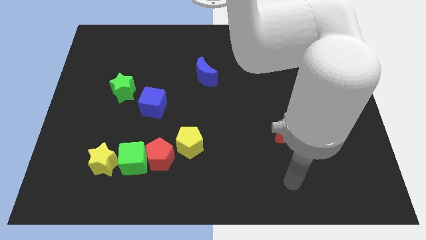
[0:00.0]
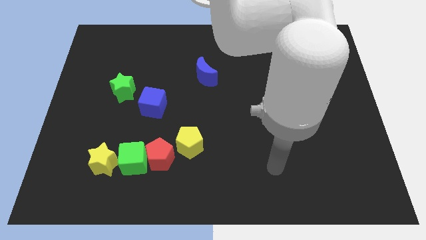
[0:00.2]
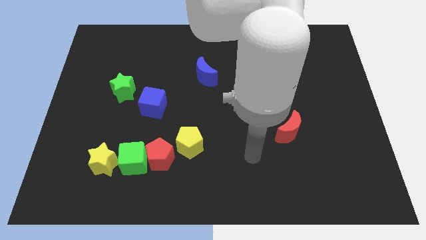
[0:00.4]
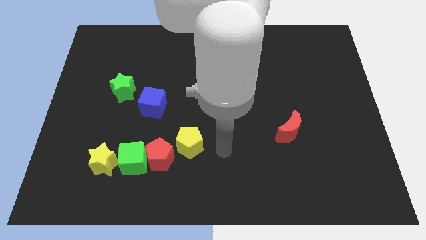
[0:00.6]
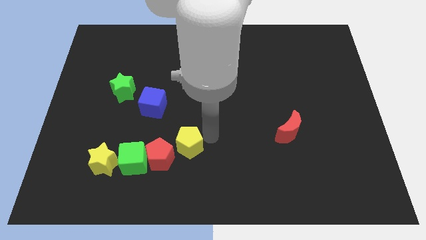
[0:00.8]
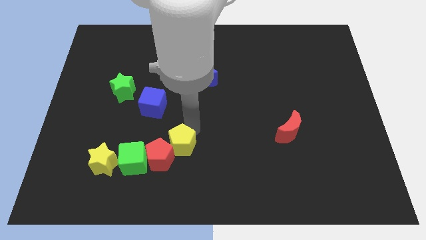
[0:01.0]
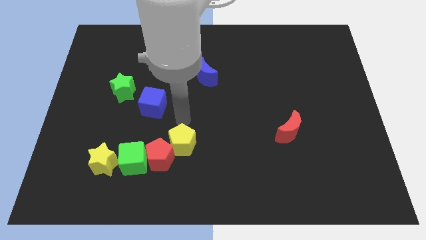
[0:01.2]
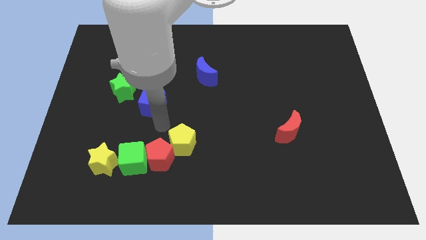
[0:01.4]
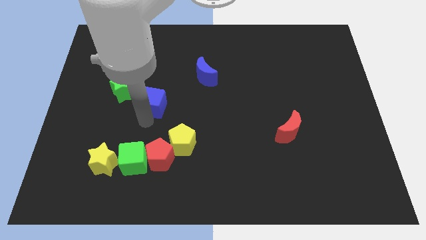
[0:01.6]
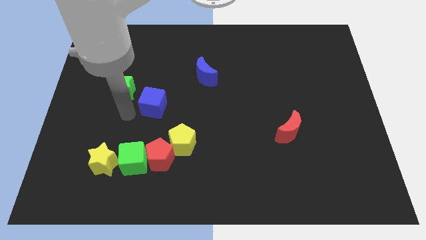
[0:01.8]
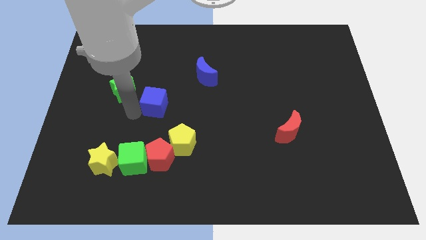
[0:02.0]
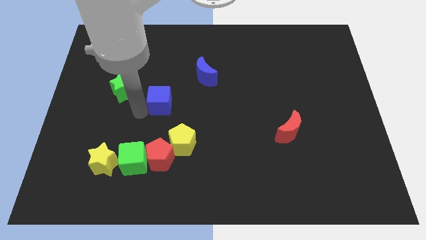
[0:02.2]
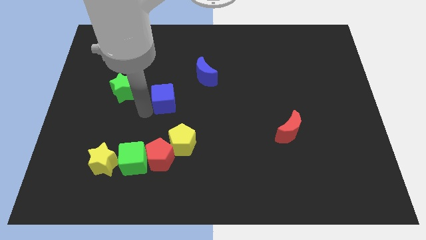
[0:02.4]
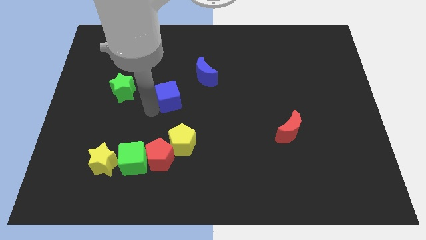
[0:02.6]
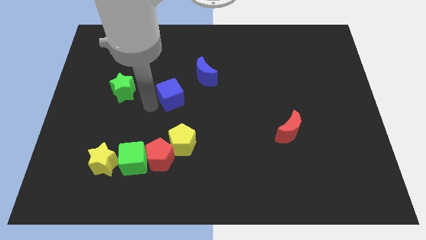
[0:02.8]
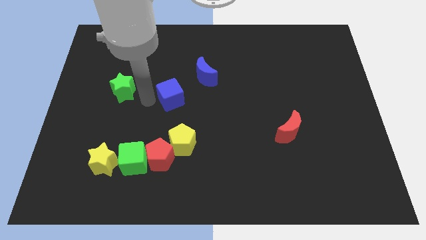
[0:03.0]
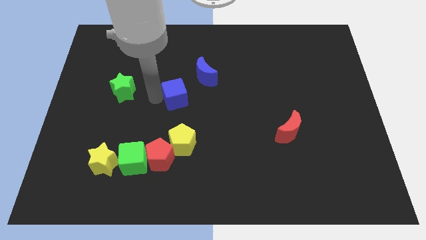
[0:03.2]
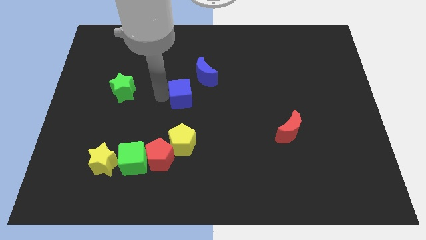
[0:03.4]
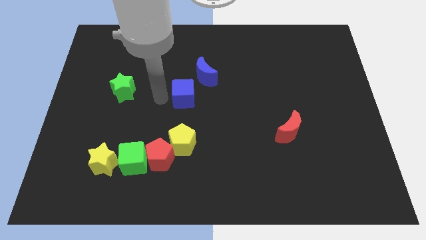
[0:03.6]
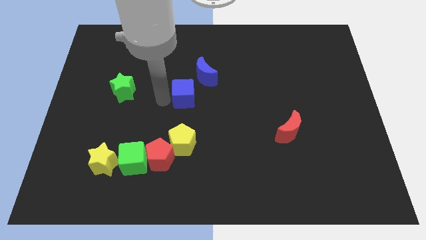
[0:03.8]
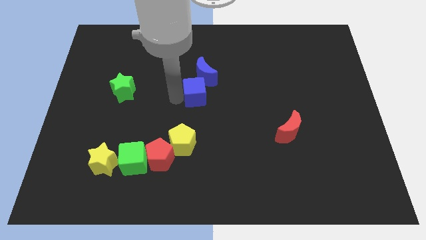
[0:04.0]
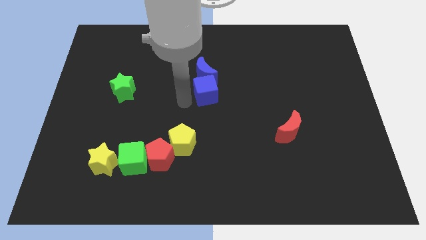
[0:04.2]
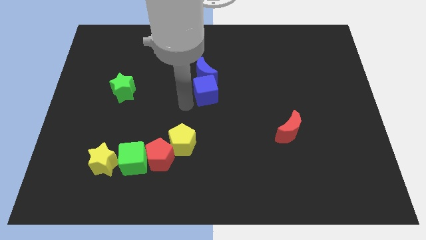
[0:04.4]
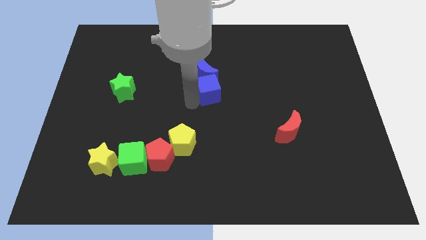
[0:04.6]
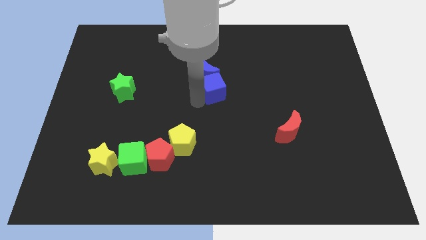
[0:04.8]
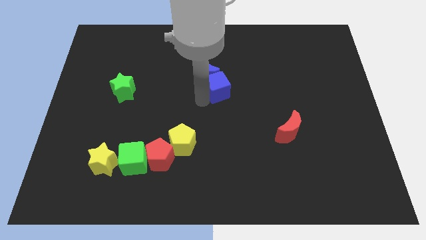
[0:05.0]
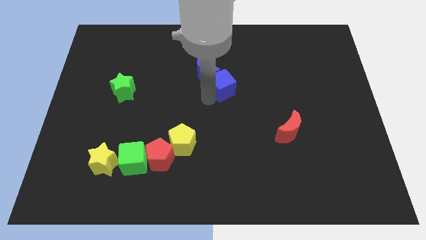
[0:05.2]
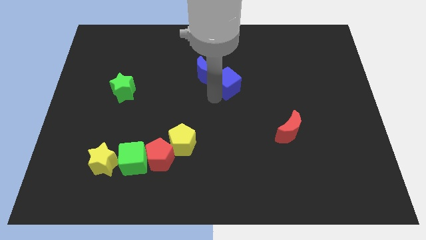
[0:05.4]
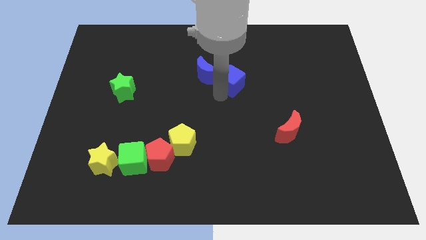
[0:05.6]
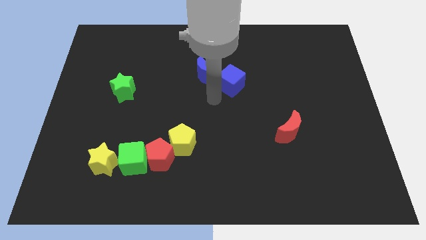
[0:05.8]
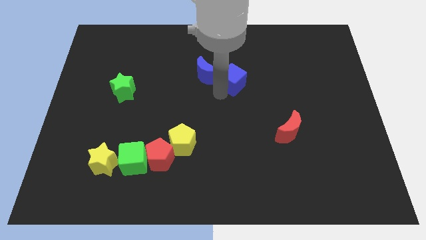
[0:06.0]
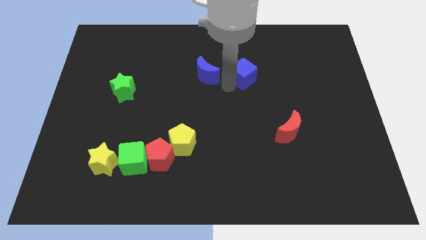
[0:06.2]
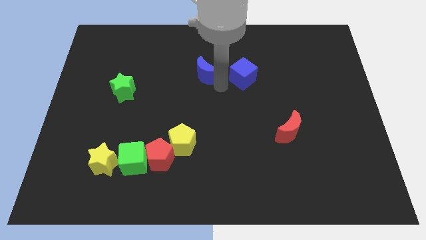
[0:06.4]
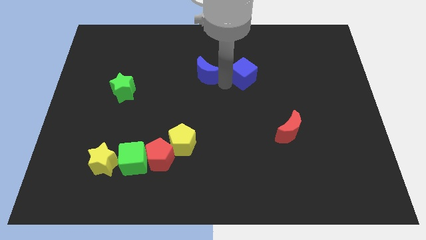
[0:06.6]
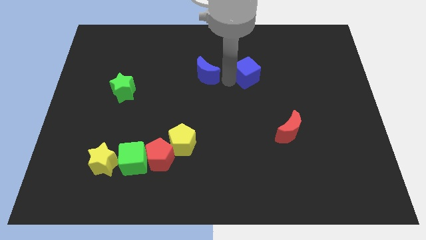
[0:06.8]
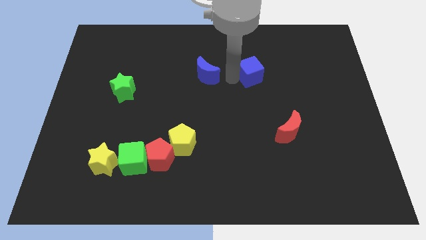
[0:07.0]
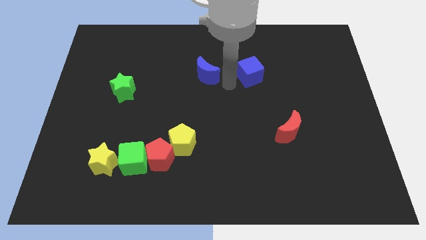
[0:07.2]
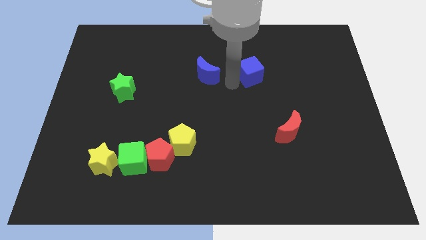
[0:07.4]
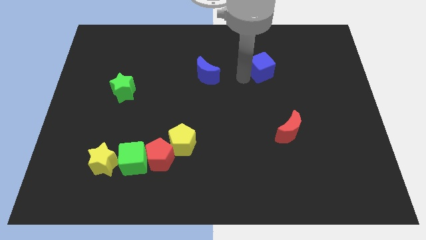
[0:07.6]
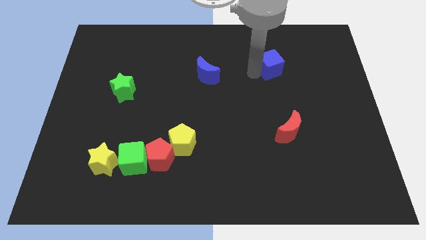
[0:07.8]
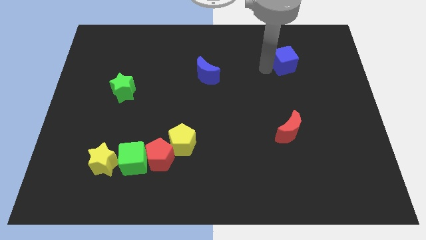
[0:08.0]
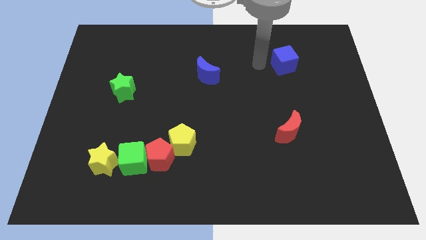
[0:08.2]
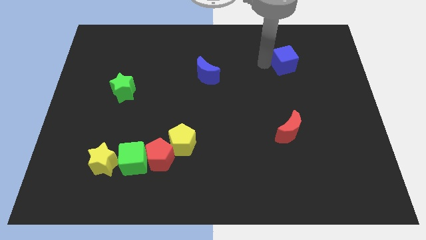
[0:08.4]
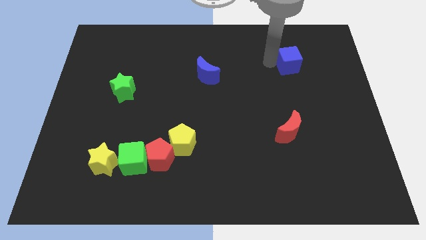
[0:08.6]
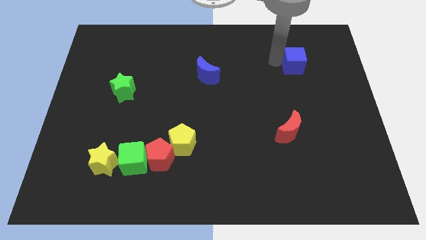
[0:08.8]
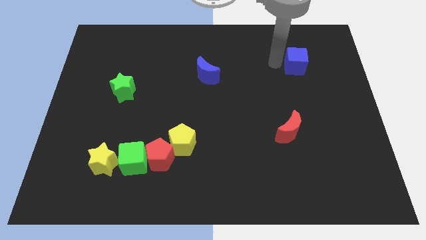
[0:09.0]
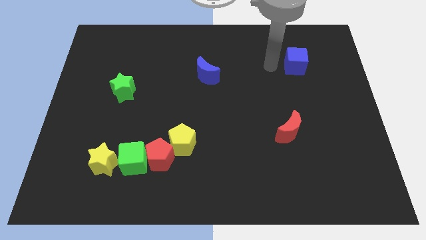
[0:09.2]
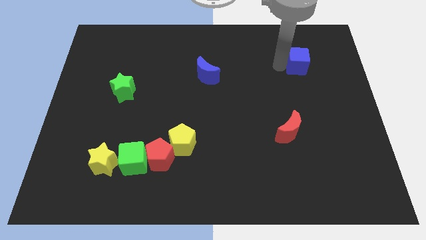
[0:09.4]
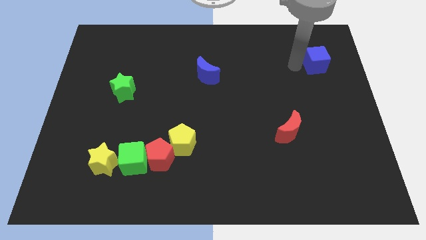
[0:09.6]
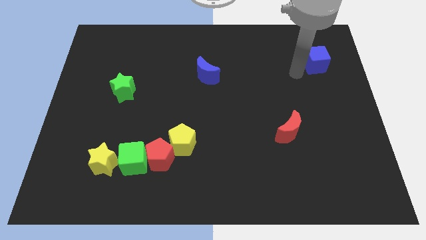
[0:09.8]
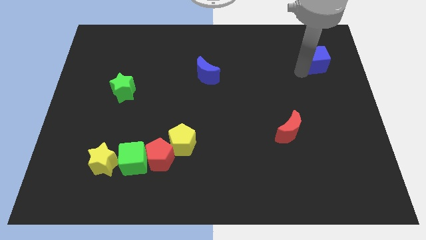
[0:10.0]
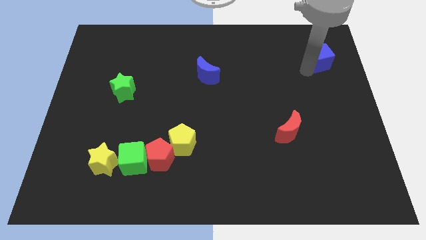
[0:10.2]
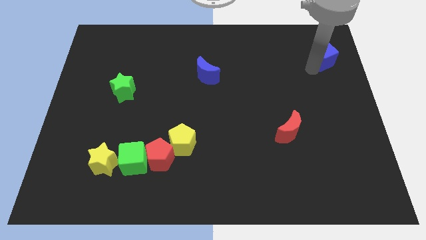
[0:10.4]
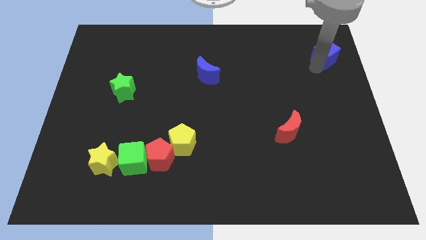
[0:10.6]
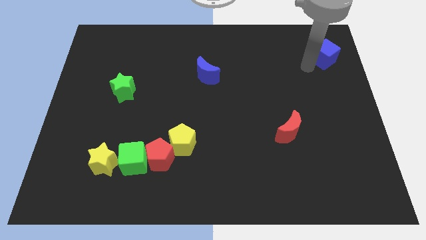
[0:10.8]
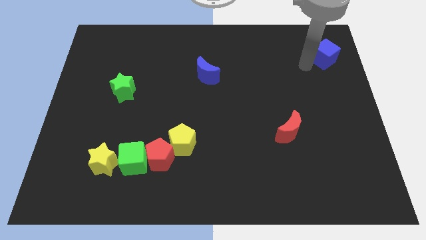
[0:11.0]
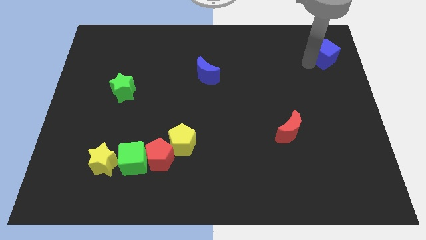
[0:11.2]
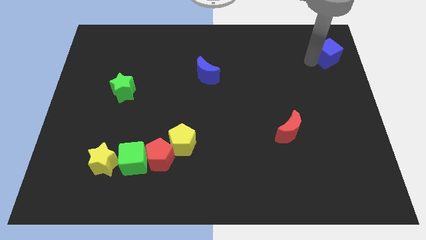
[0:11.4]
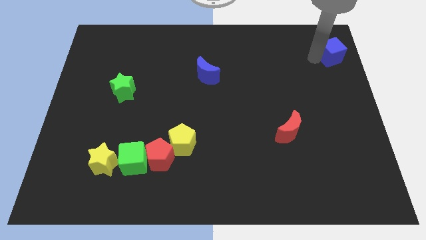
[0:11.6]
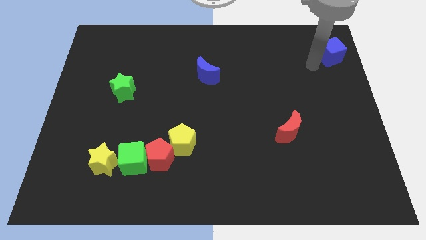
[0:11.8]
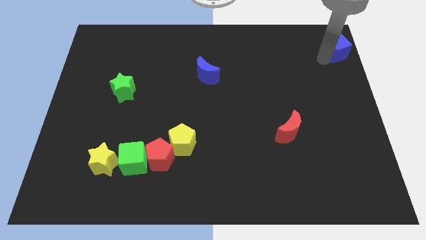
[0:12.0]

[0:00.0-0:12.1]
move the blue cube to the top right corner
